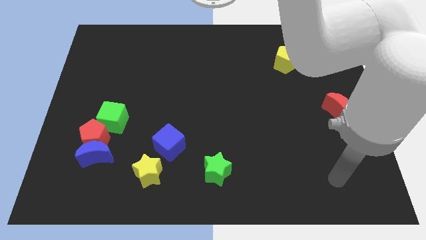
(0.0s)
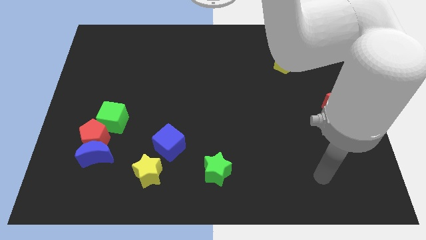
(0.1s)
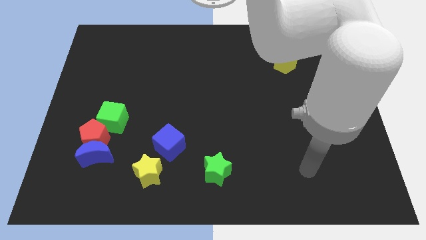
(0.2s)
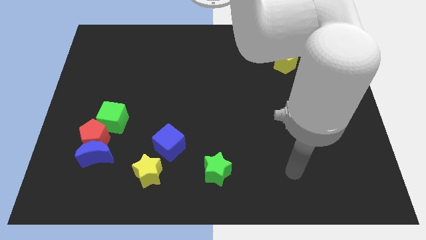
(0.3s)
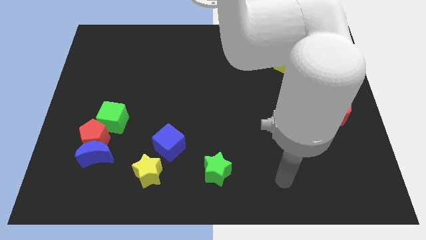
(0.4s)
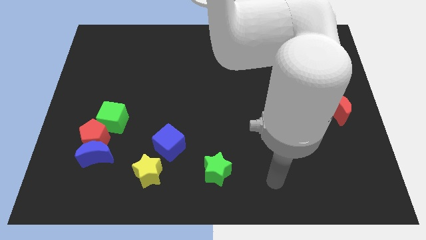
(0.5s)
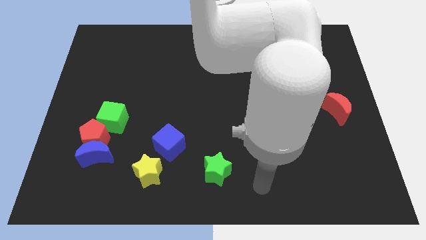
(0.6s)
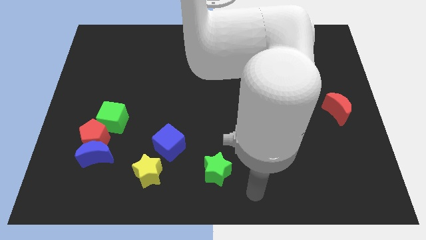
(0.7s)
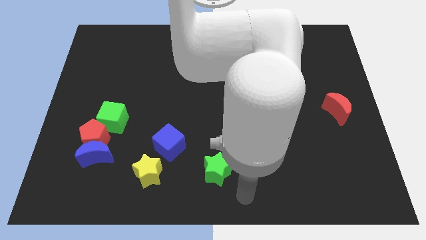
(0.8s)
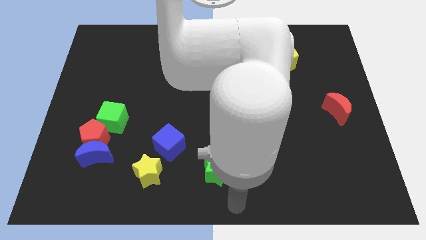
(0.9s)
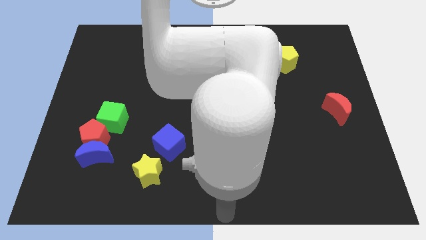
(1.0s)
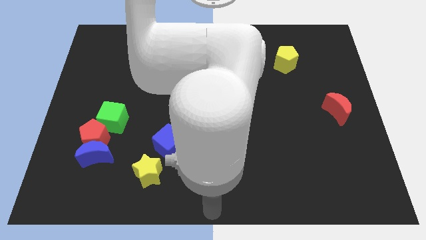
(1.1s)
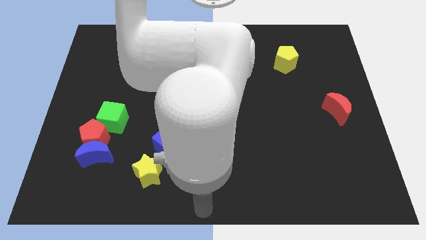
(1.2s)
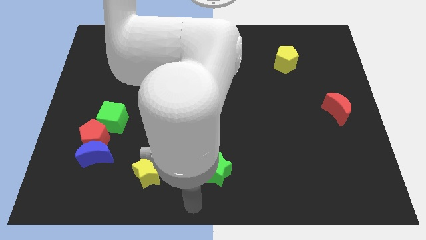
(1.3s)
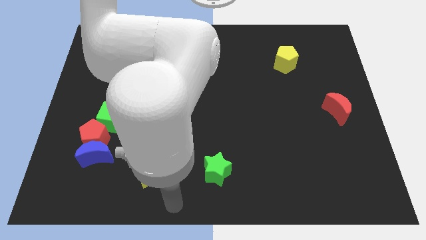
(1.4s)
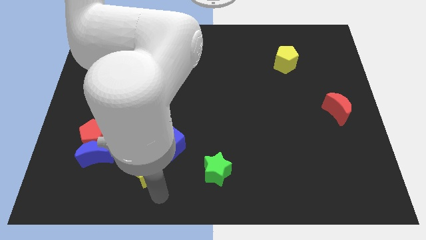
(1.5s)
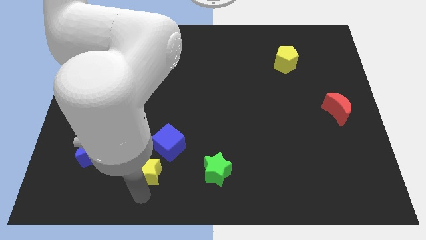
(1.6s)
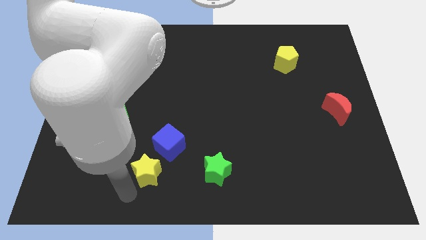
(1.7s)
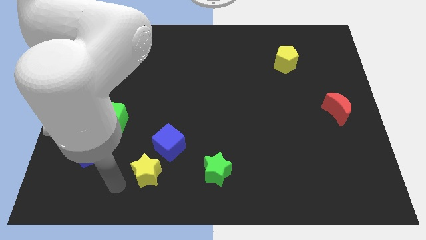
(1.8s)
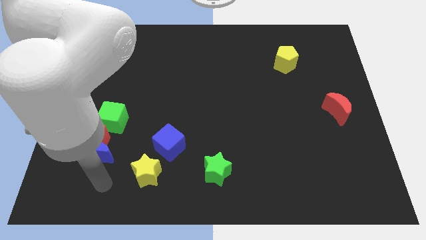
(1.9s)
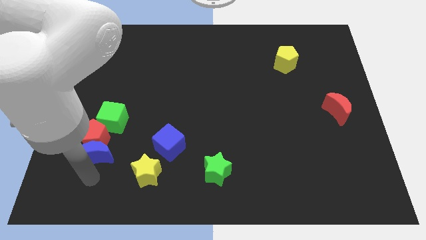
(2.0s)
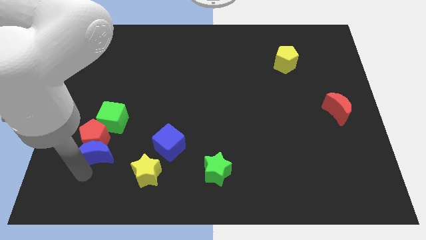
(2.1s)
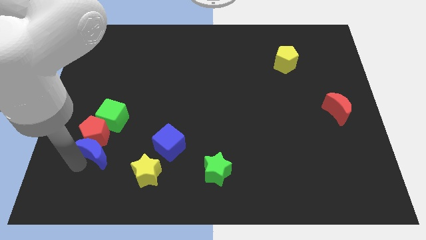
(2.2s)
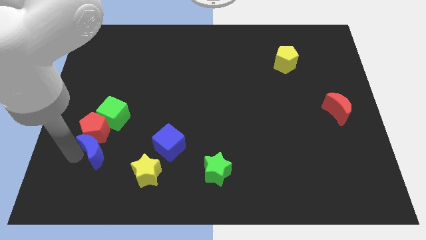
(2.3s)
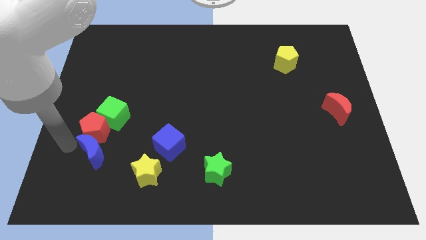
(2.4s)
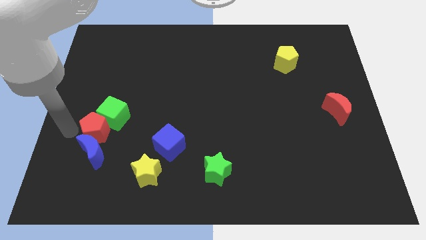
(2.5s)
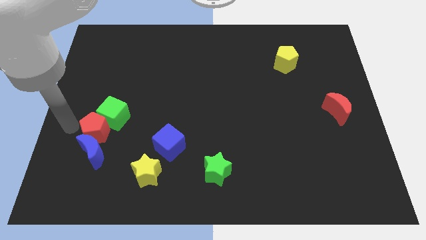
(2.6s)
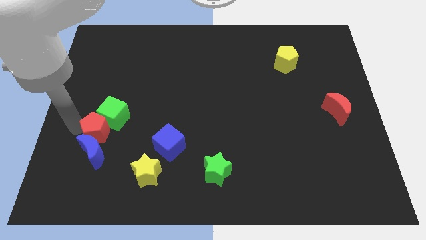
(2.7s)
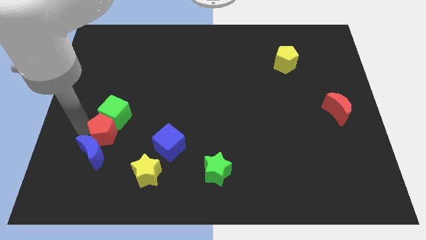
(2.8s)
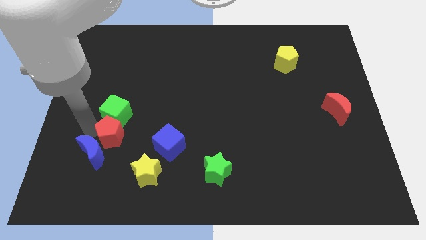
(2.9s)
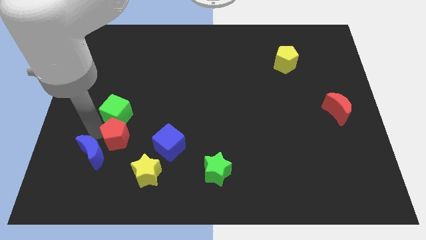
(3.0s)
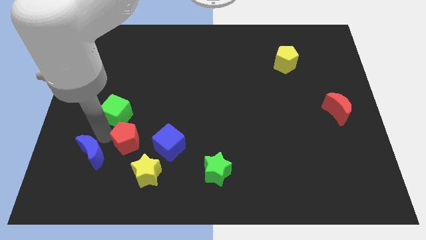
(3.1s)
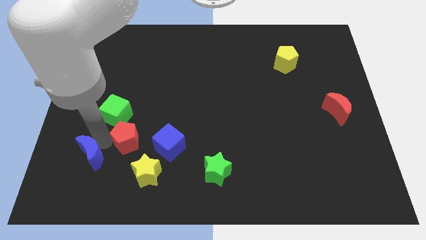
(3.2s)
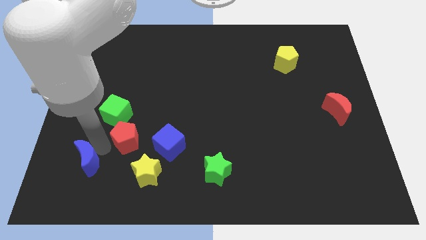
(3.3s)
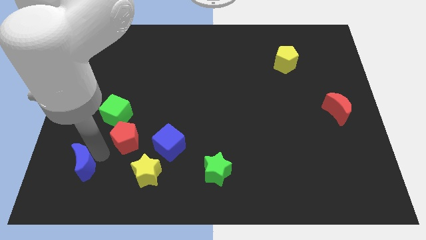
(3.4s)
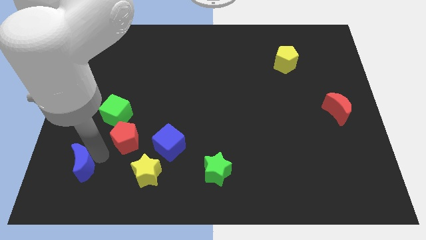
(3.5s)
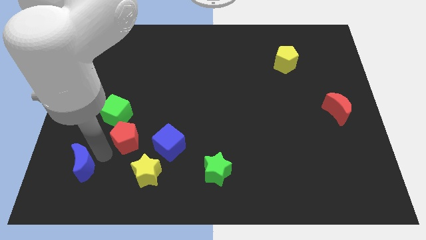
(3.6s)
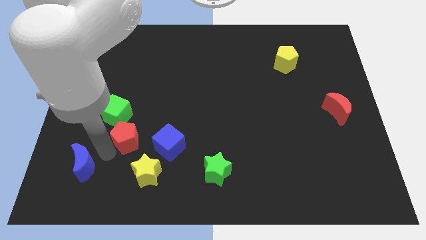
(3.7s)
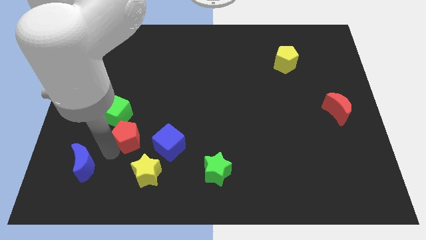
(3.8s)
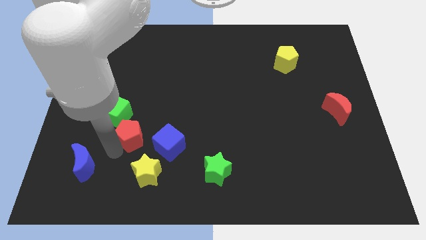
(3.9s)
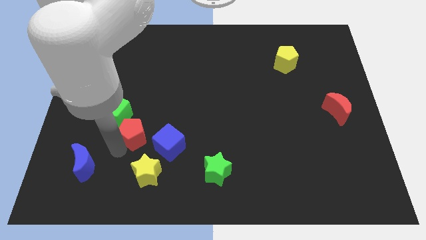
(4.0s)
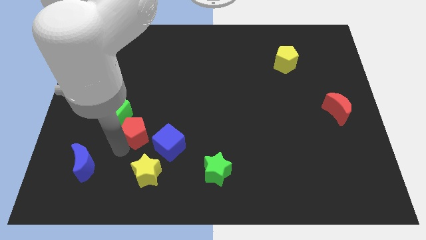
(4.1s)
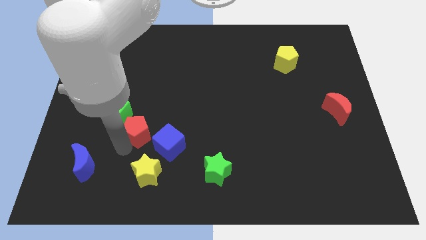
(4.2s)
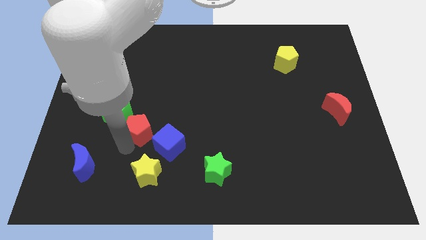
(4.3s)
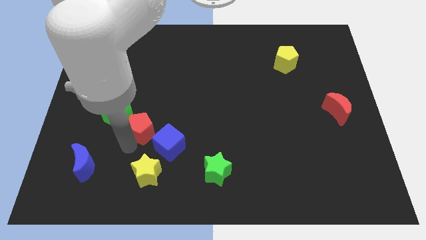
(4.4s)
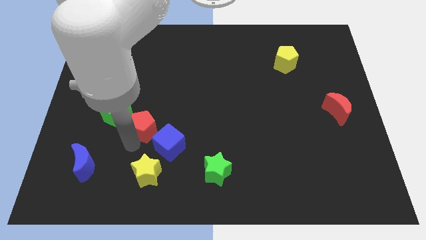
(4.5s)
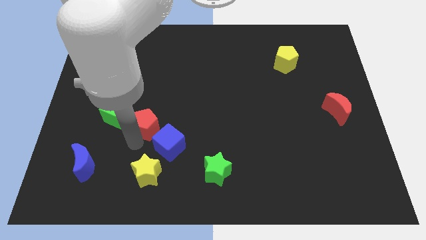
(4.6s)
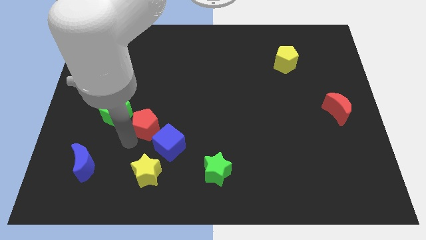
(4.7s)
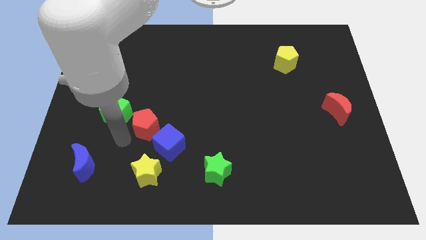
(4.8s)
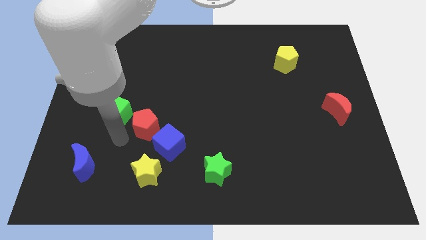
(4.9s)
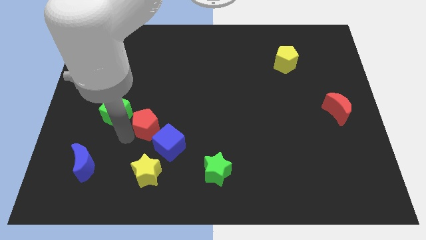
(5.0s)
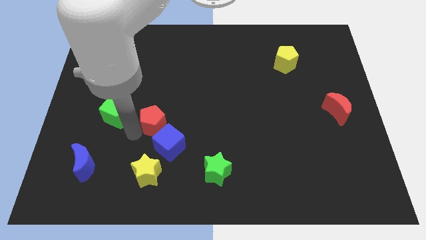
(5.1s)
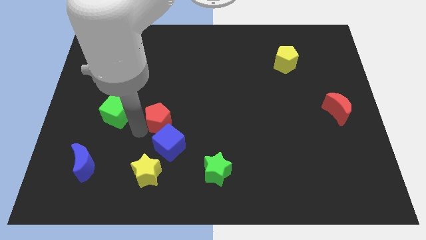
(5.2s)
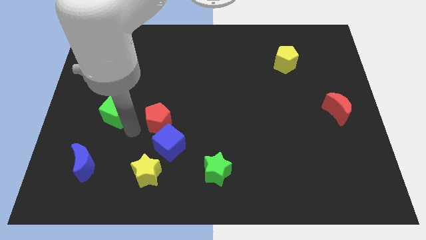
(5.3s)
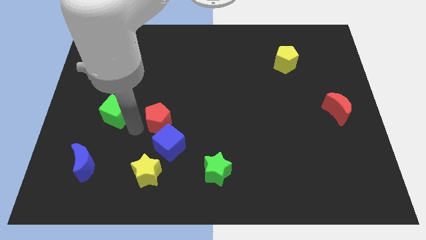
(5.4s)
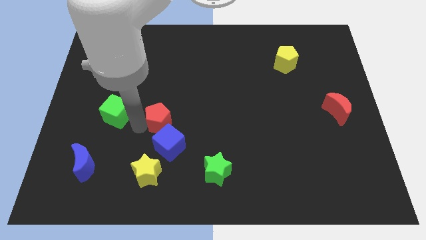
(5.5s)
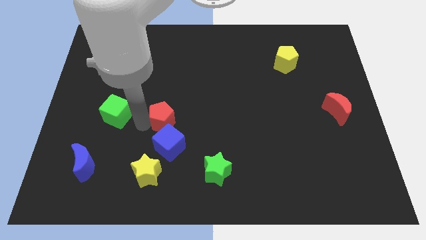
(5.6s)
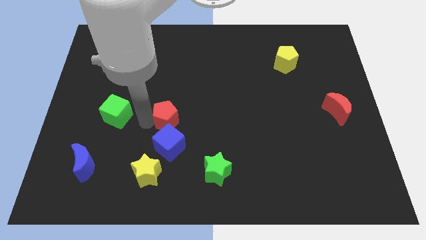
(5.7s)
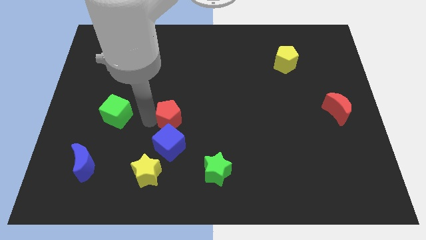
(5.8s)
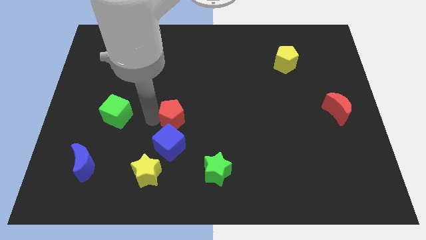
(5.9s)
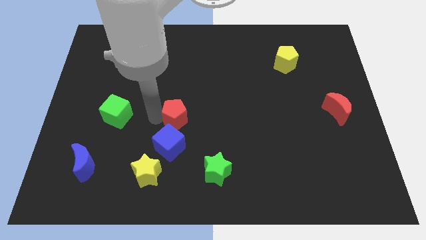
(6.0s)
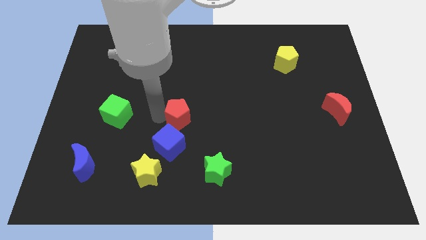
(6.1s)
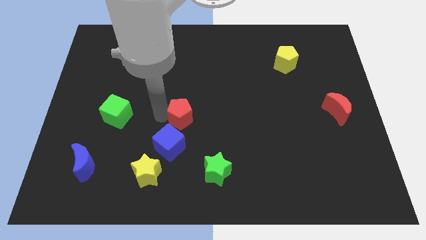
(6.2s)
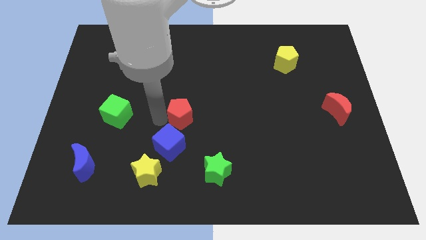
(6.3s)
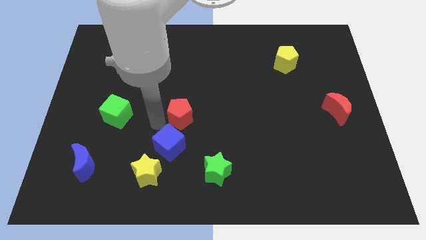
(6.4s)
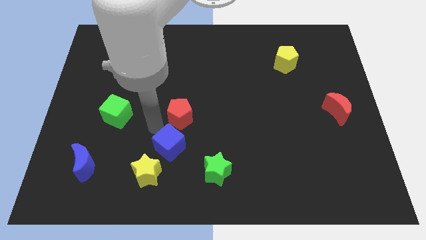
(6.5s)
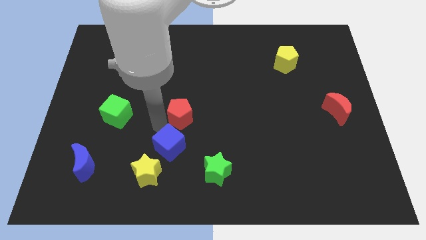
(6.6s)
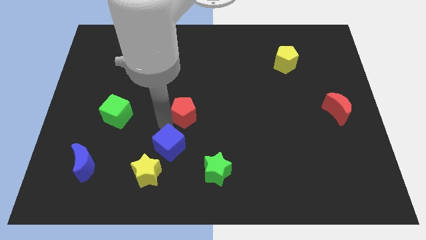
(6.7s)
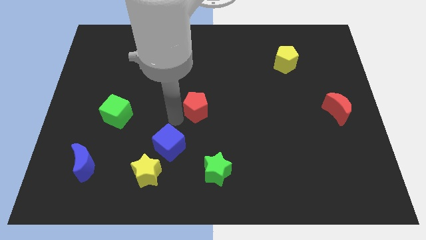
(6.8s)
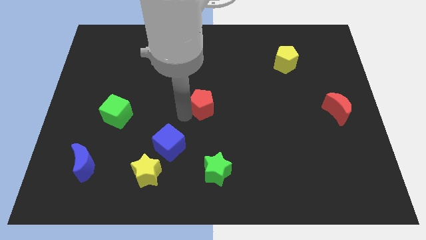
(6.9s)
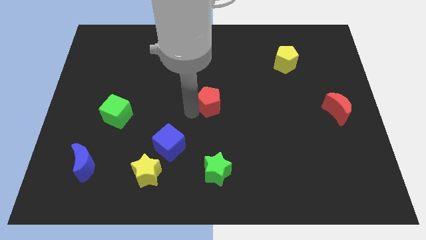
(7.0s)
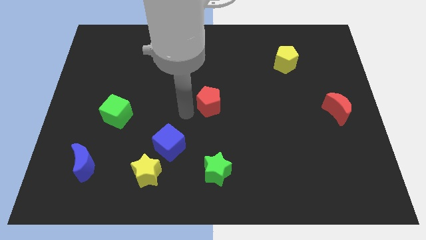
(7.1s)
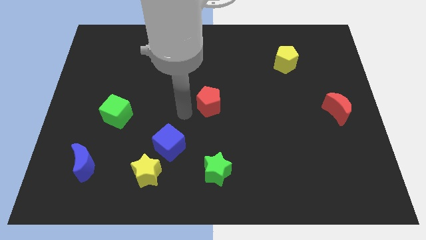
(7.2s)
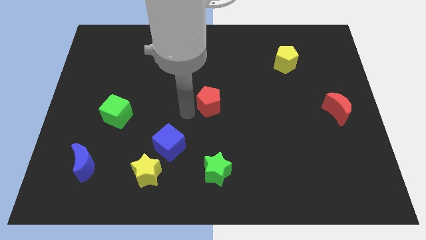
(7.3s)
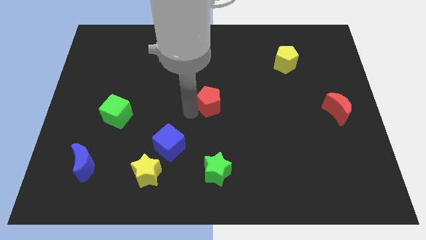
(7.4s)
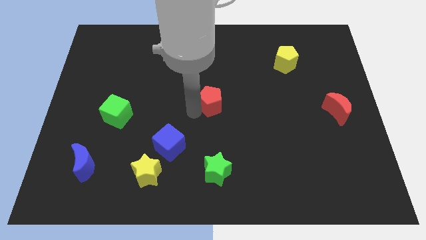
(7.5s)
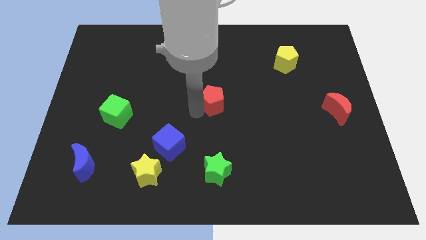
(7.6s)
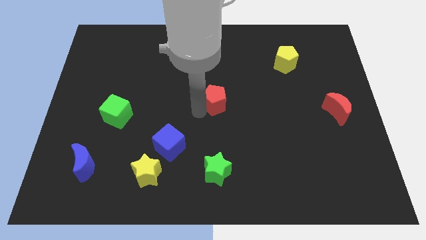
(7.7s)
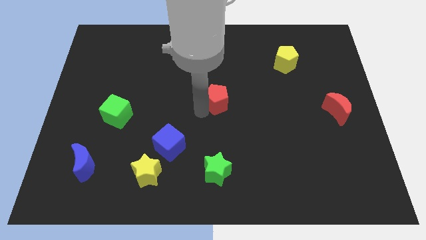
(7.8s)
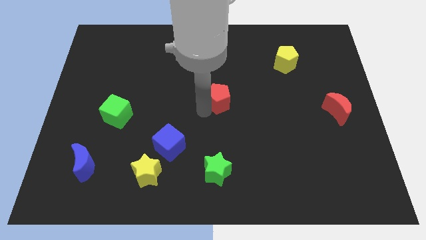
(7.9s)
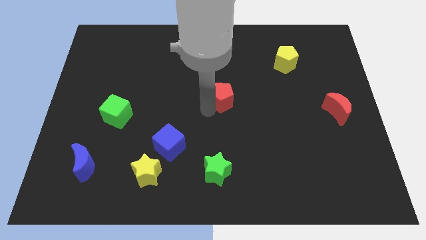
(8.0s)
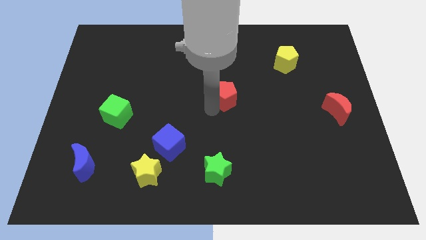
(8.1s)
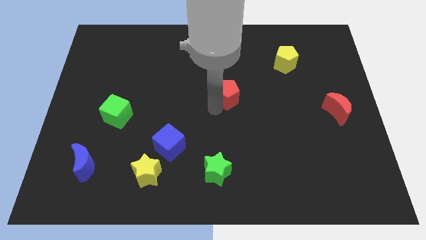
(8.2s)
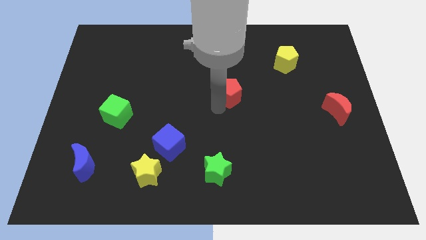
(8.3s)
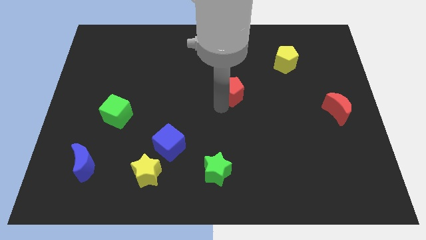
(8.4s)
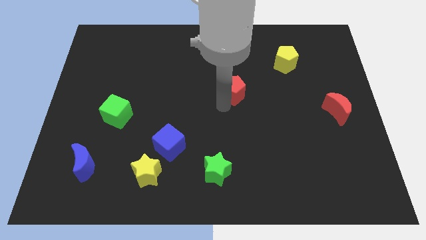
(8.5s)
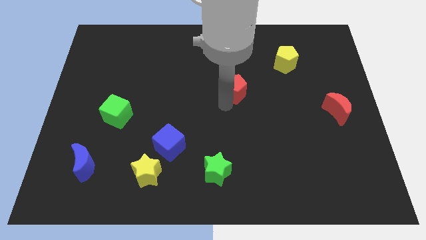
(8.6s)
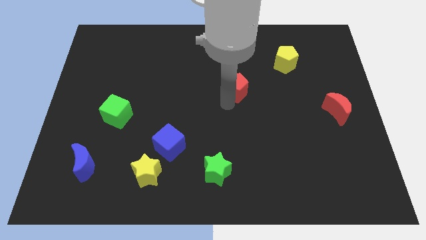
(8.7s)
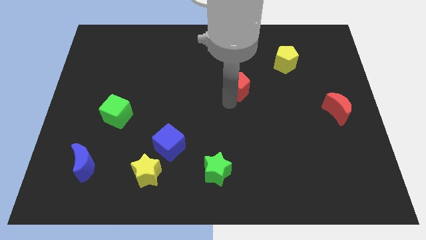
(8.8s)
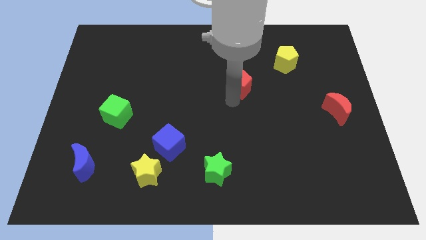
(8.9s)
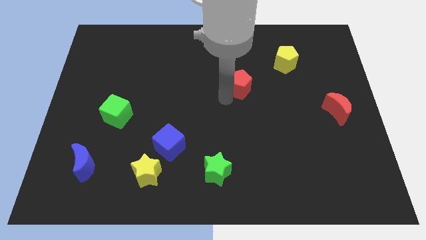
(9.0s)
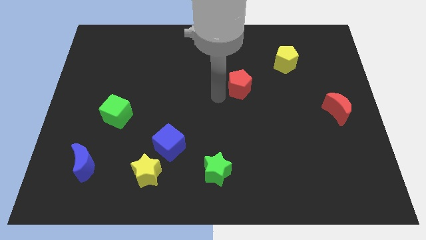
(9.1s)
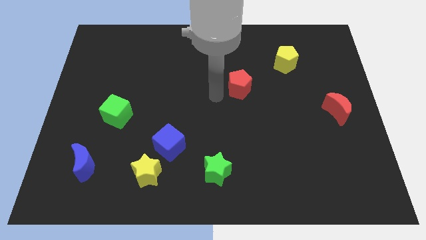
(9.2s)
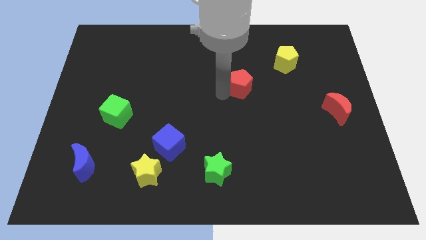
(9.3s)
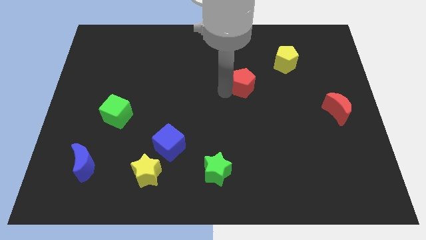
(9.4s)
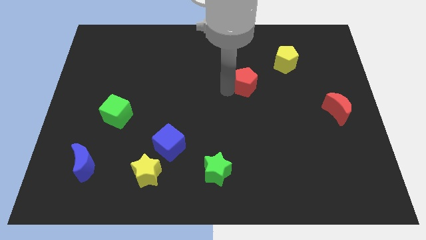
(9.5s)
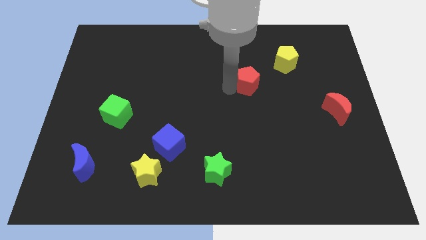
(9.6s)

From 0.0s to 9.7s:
slide the red pentagon diagonally down and to the left of the yellow pentagon
